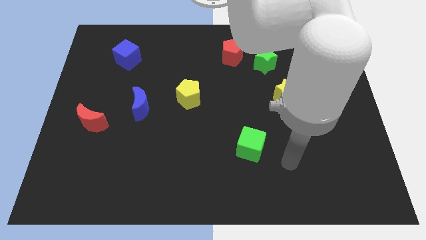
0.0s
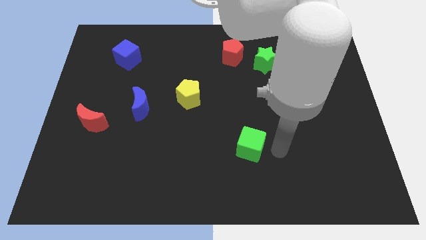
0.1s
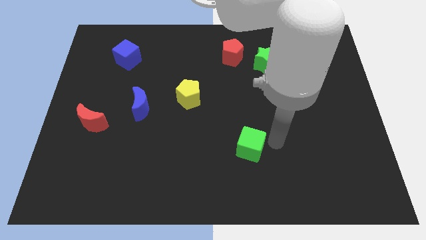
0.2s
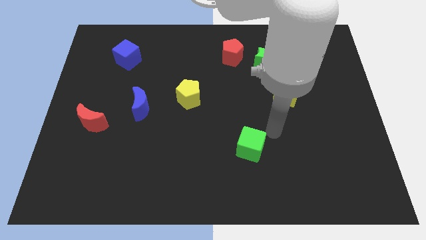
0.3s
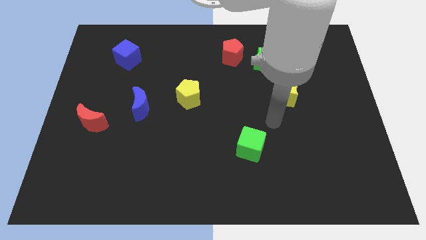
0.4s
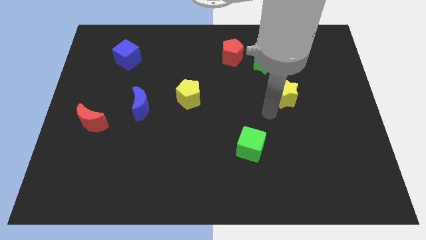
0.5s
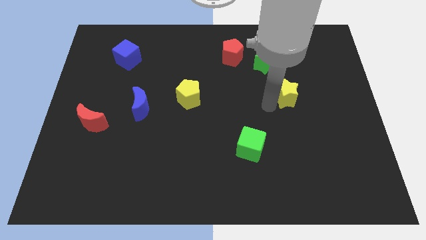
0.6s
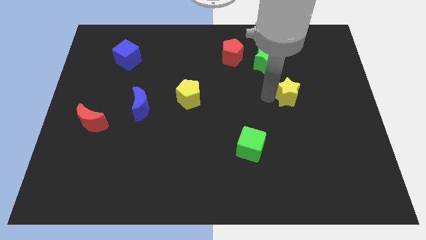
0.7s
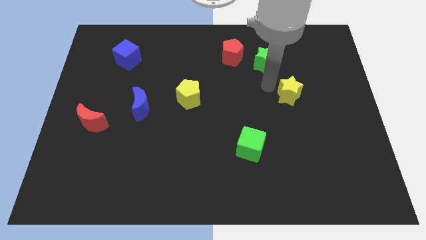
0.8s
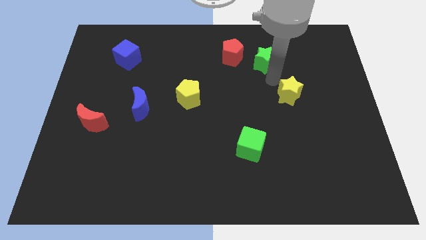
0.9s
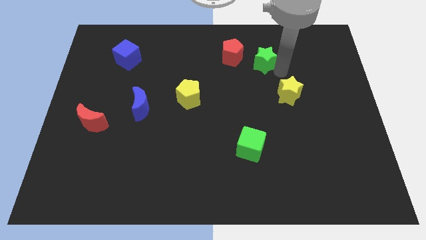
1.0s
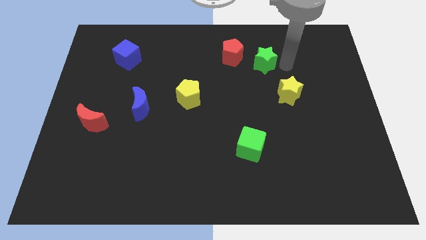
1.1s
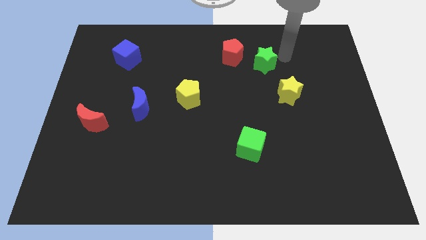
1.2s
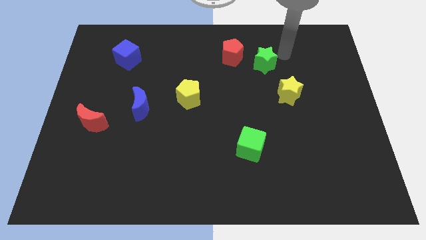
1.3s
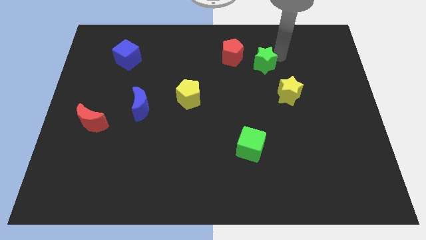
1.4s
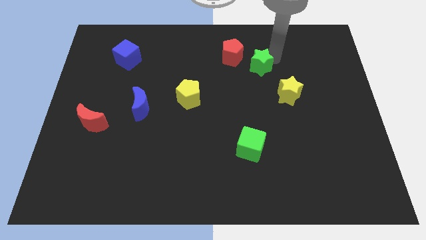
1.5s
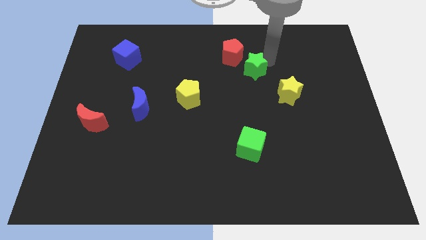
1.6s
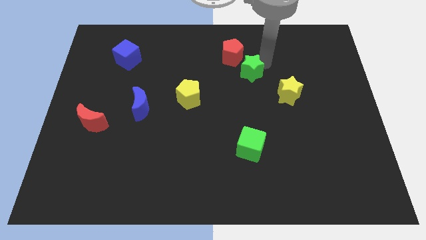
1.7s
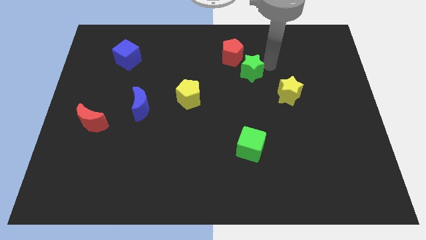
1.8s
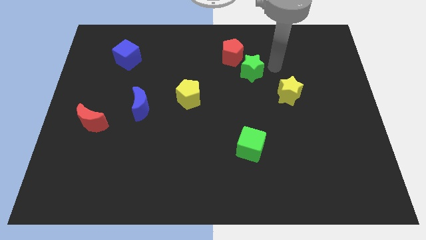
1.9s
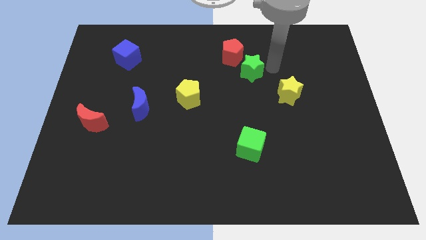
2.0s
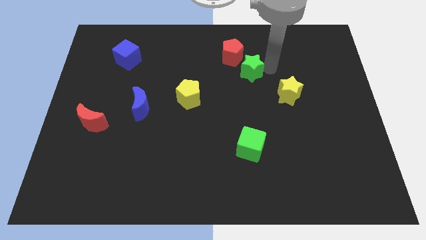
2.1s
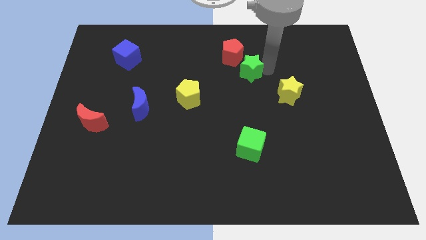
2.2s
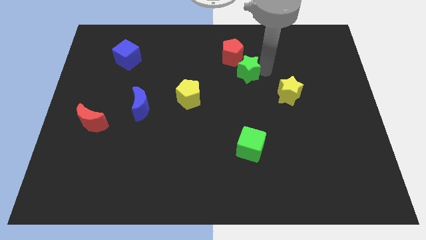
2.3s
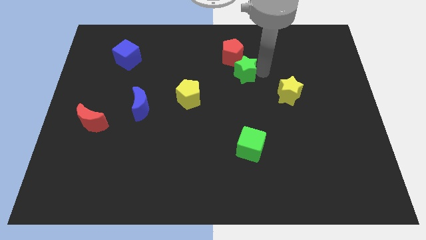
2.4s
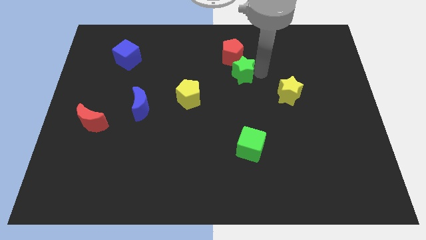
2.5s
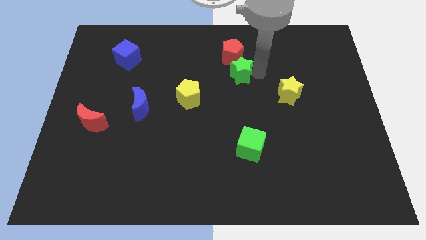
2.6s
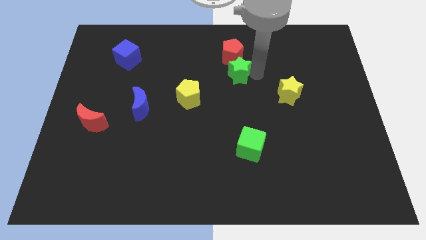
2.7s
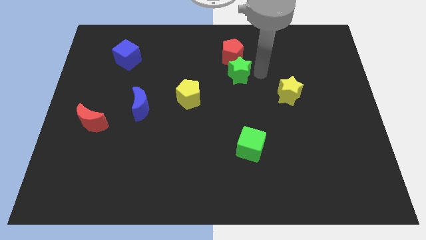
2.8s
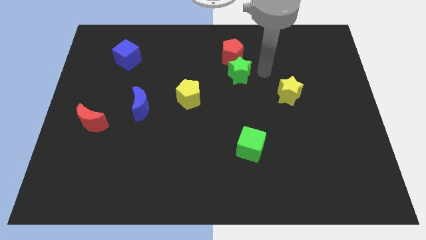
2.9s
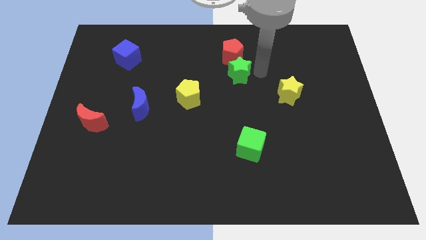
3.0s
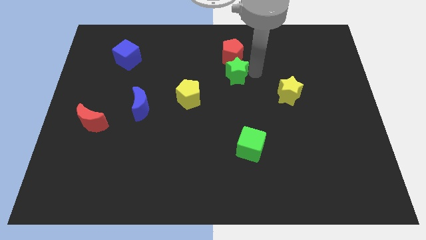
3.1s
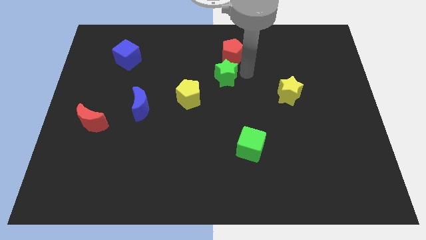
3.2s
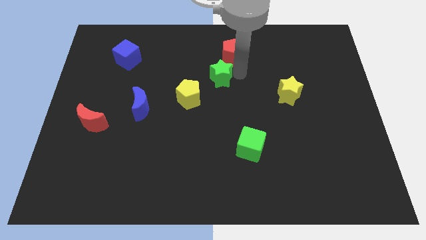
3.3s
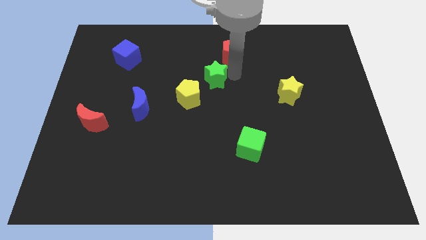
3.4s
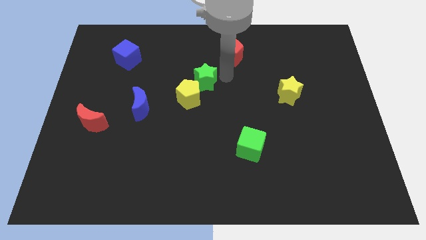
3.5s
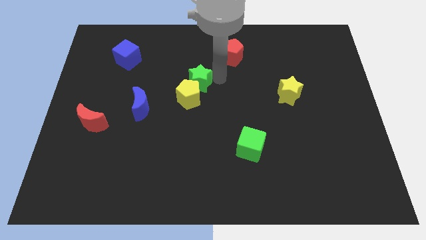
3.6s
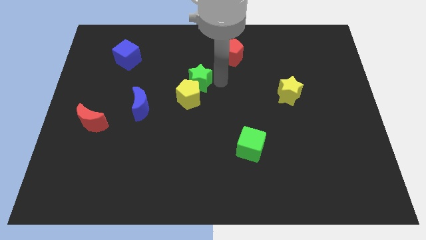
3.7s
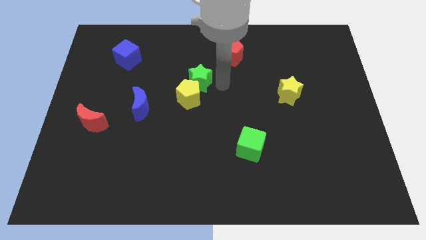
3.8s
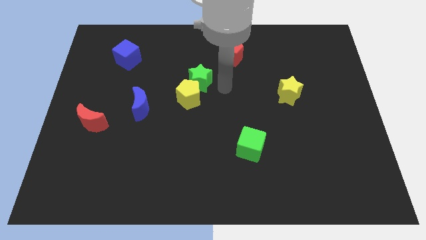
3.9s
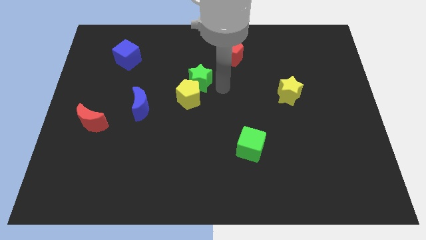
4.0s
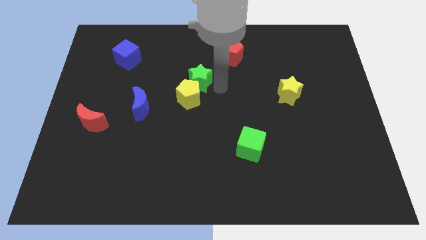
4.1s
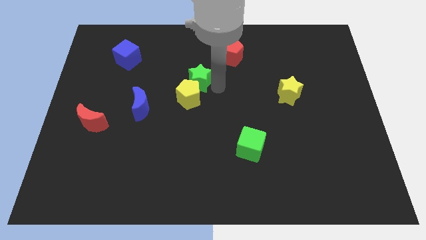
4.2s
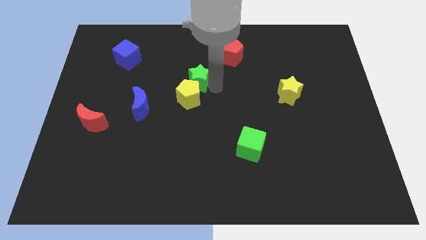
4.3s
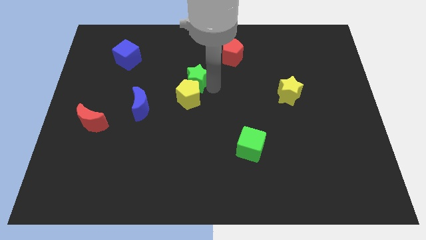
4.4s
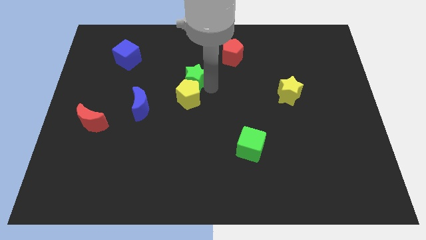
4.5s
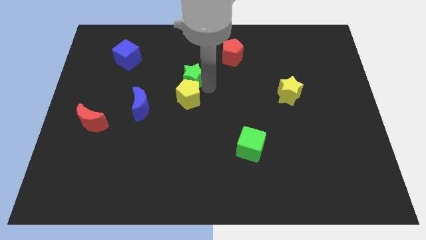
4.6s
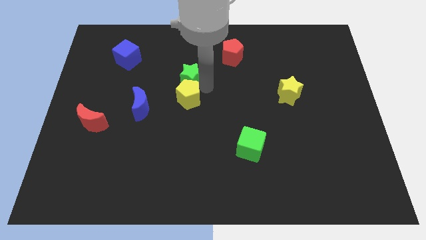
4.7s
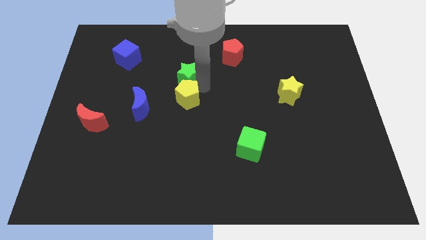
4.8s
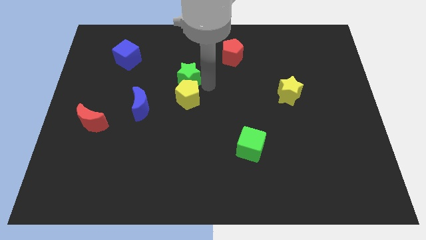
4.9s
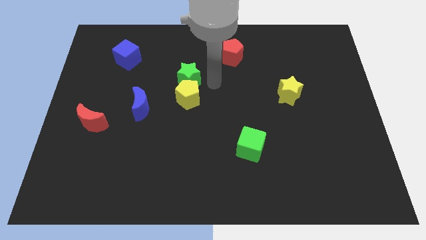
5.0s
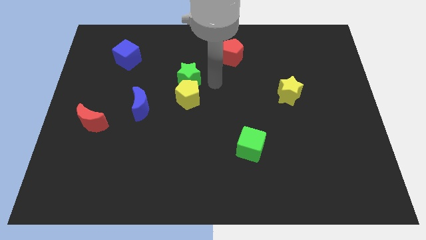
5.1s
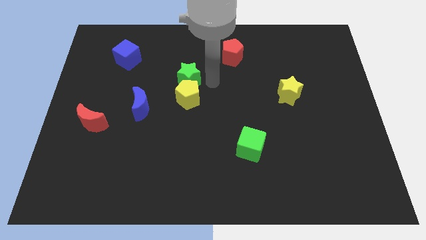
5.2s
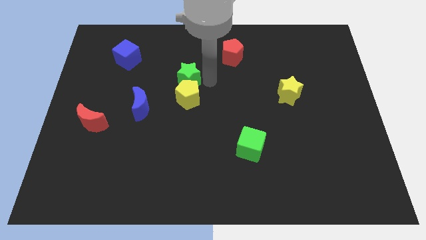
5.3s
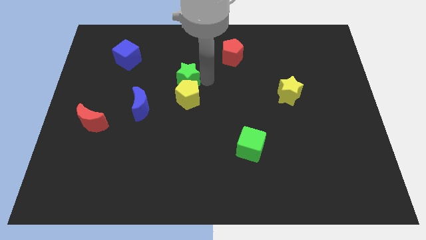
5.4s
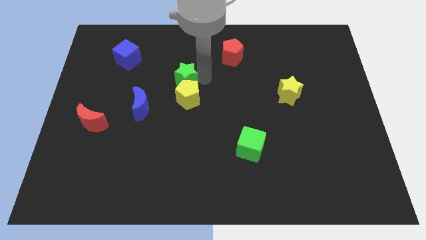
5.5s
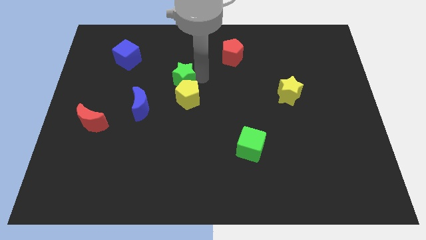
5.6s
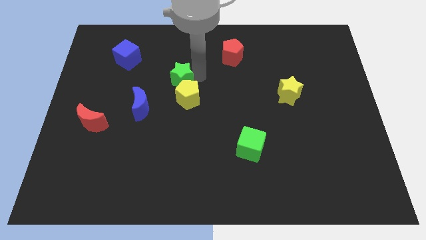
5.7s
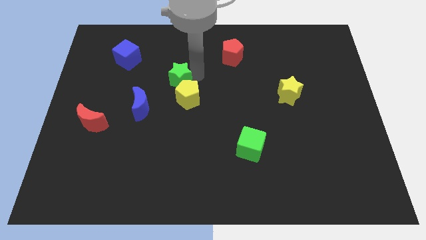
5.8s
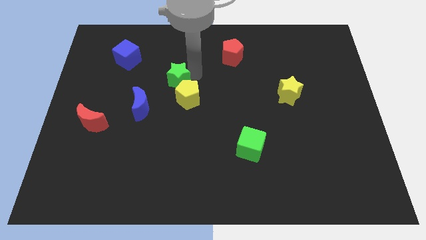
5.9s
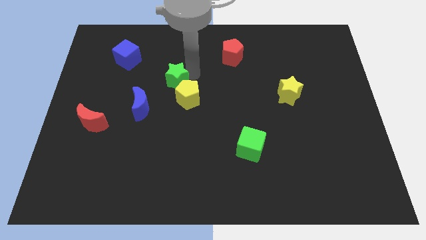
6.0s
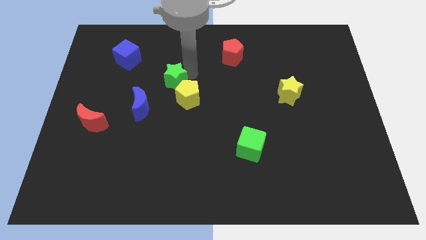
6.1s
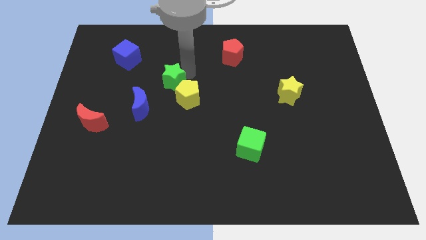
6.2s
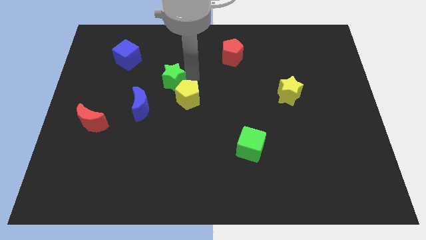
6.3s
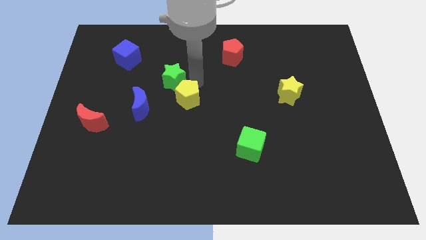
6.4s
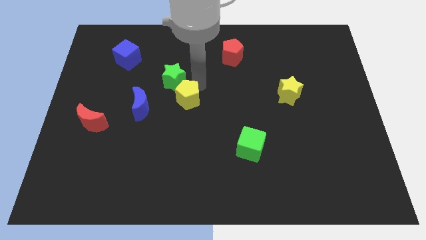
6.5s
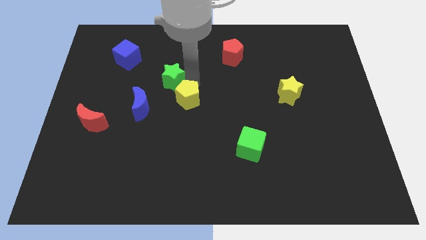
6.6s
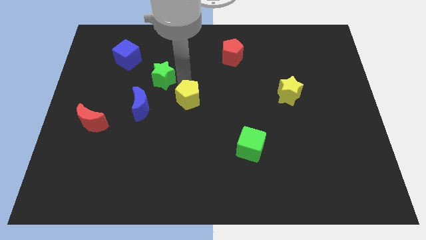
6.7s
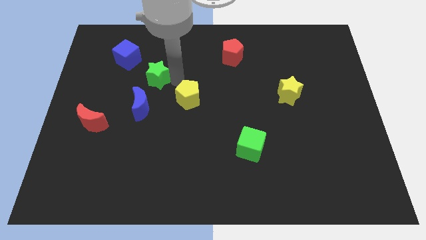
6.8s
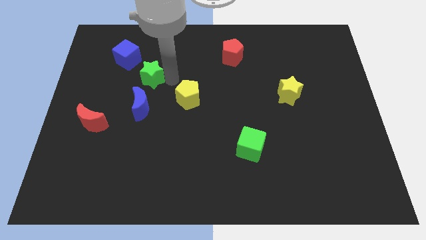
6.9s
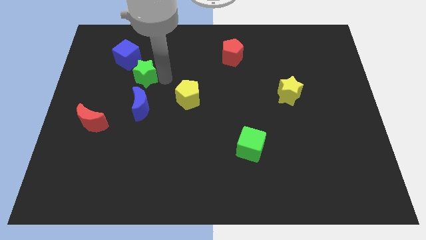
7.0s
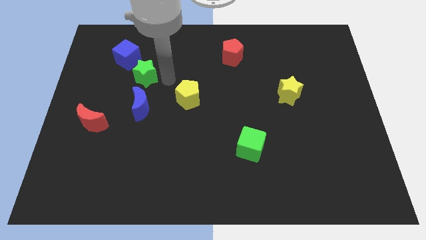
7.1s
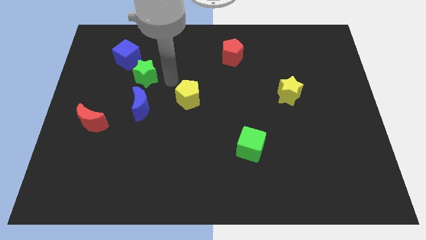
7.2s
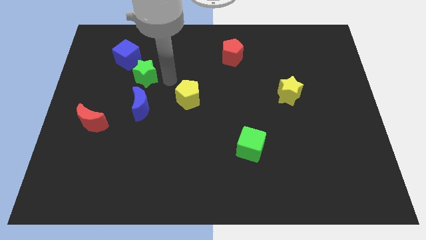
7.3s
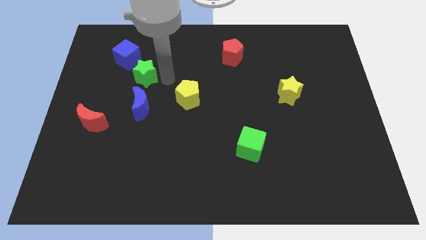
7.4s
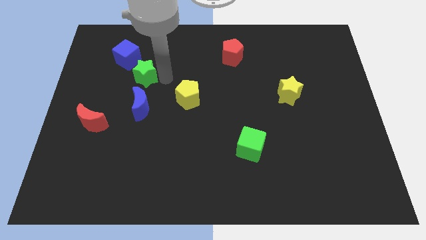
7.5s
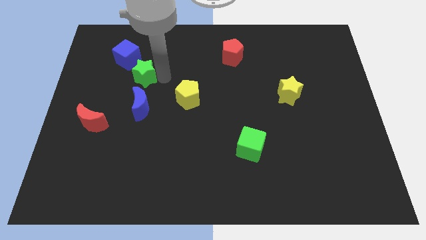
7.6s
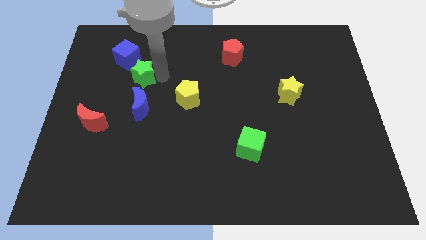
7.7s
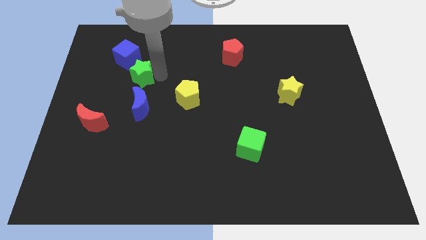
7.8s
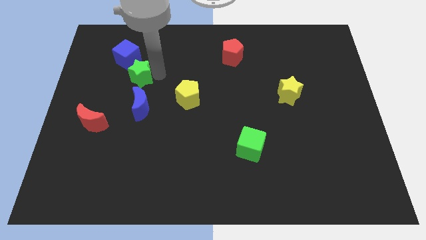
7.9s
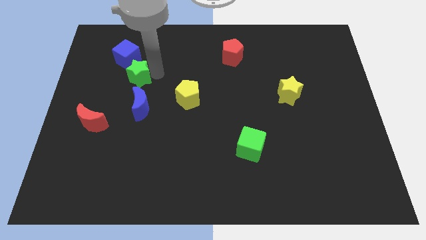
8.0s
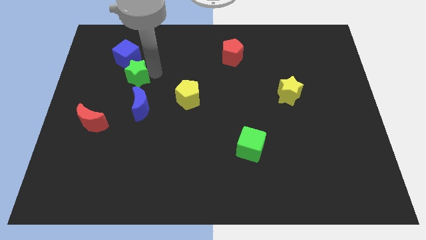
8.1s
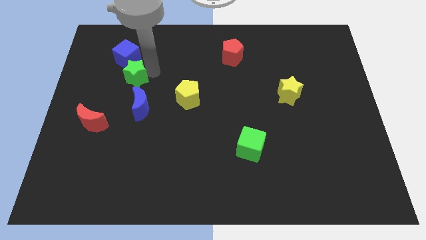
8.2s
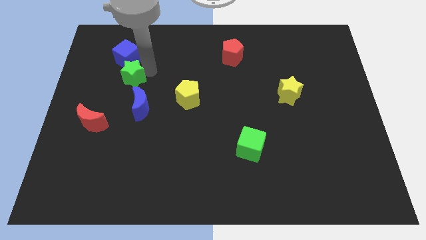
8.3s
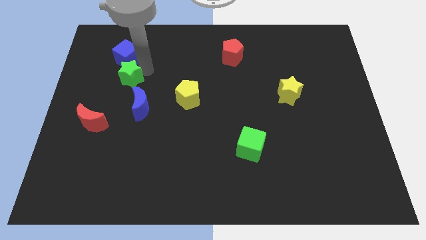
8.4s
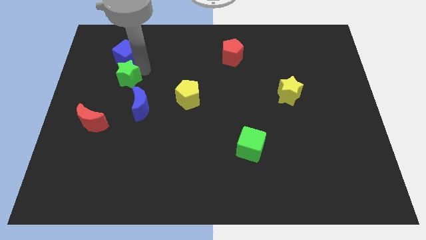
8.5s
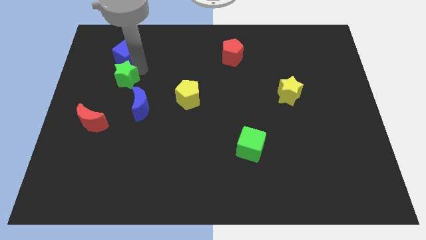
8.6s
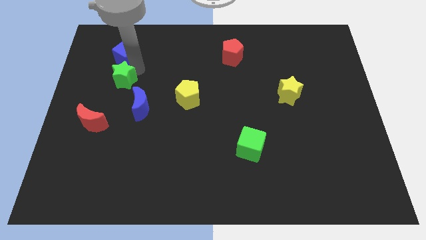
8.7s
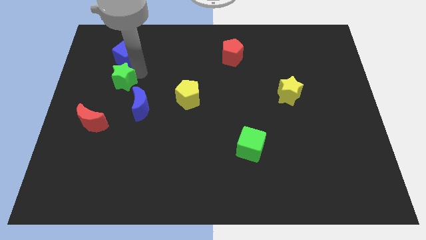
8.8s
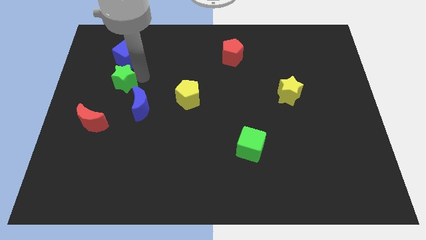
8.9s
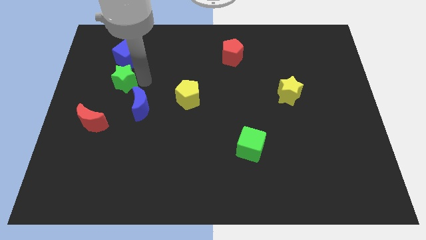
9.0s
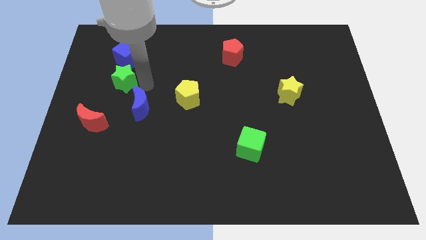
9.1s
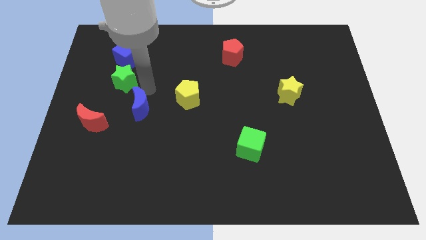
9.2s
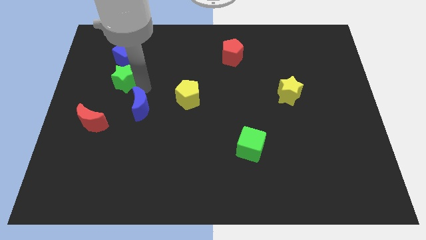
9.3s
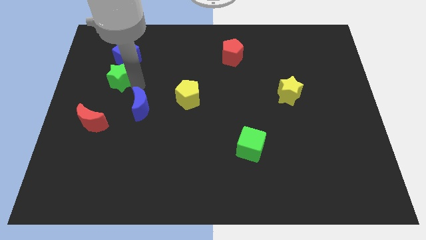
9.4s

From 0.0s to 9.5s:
slide the green star to the bottom left side of the blue cube
